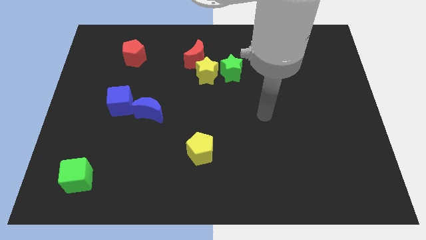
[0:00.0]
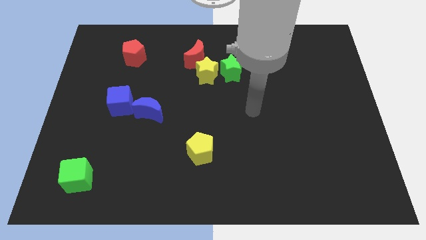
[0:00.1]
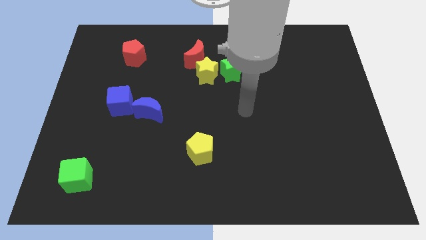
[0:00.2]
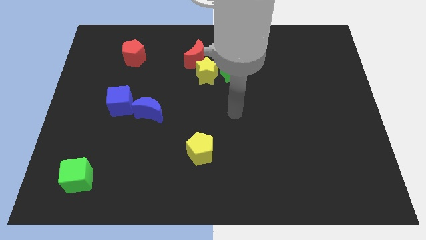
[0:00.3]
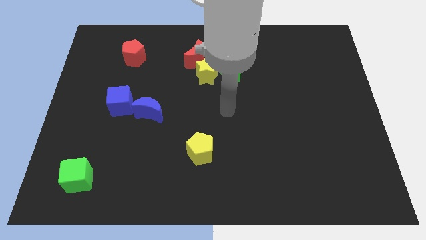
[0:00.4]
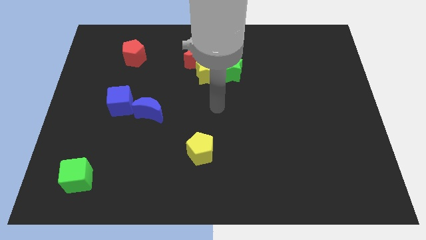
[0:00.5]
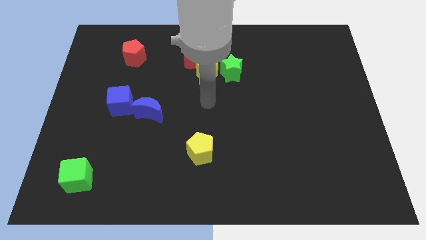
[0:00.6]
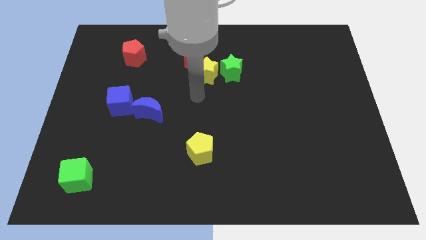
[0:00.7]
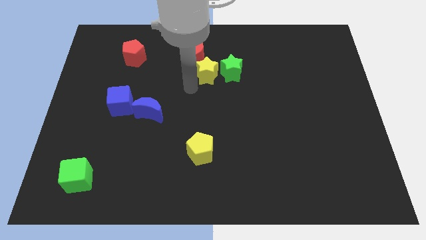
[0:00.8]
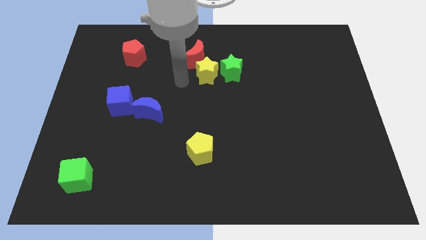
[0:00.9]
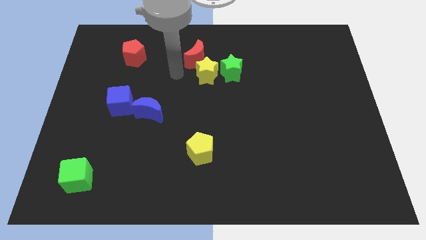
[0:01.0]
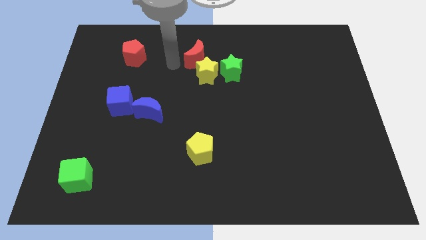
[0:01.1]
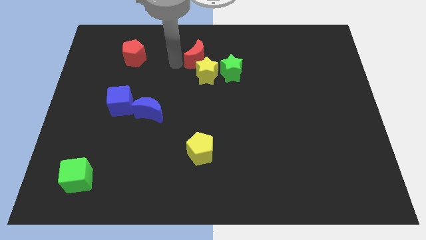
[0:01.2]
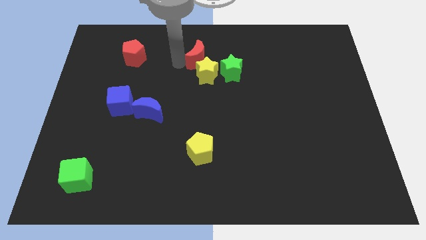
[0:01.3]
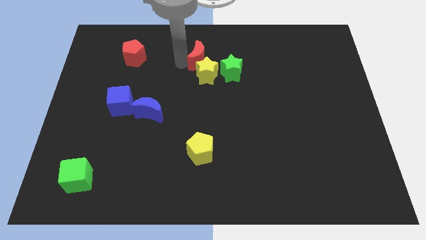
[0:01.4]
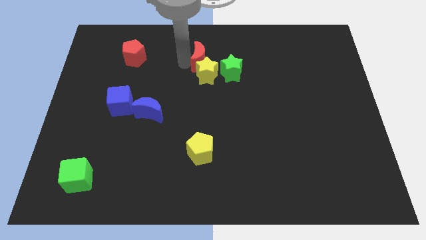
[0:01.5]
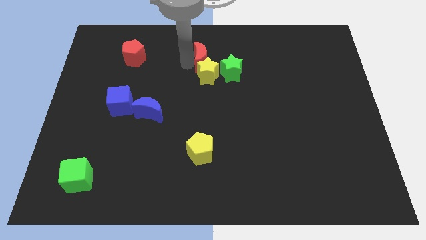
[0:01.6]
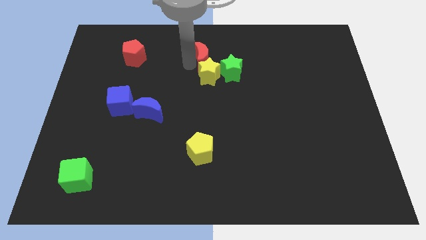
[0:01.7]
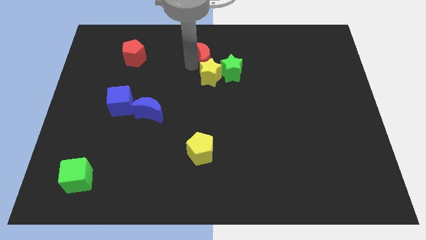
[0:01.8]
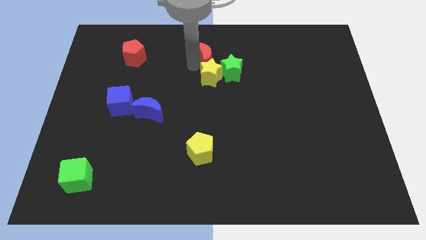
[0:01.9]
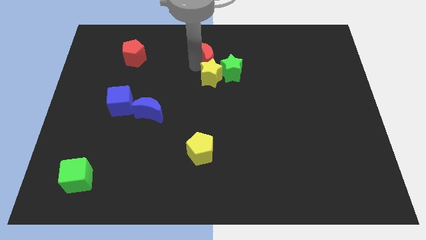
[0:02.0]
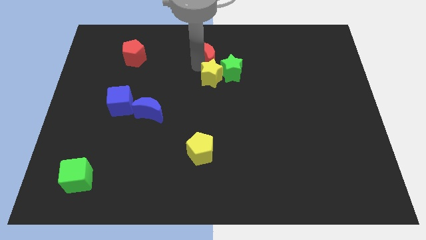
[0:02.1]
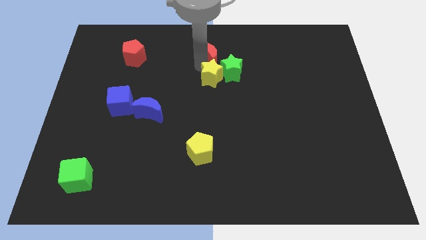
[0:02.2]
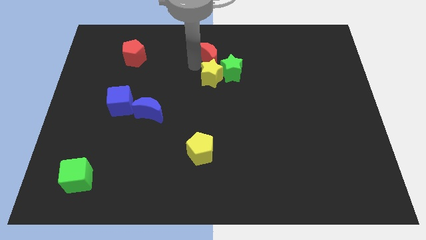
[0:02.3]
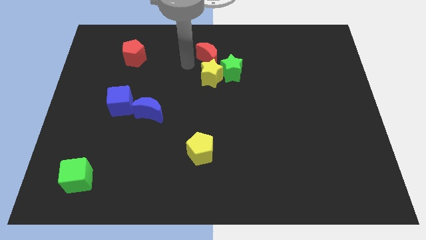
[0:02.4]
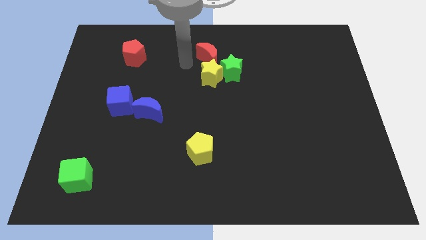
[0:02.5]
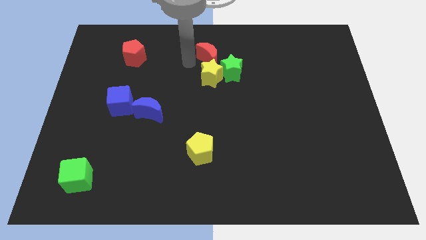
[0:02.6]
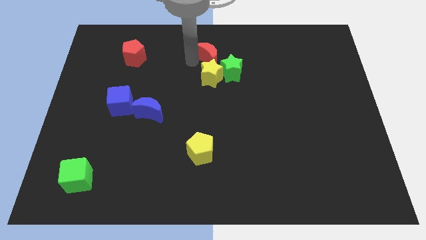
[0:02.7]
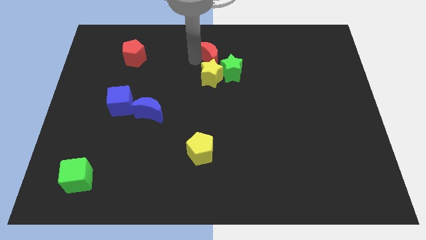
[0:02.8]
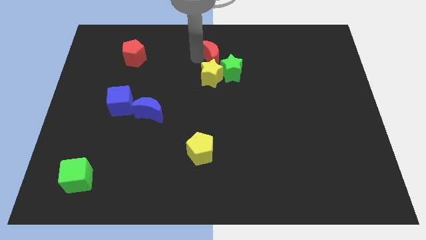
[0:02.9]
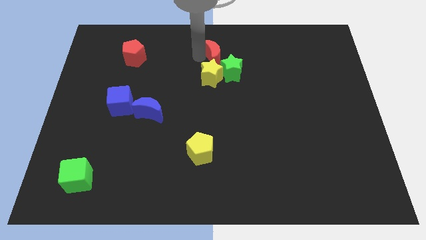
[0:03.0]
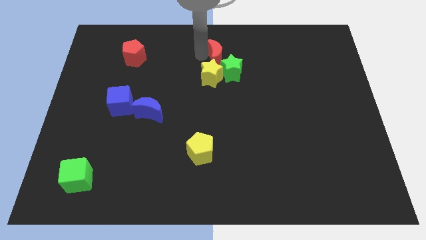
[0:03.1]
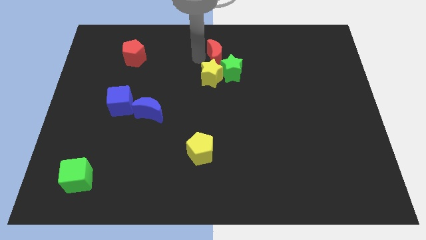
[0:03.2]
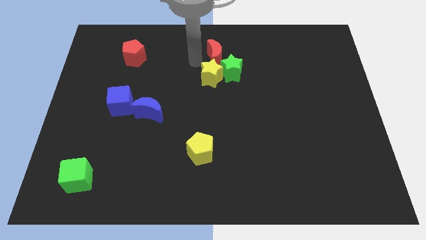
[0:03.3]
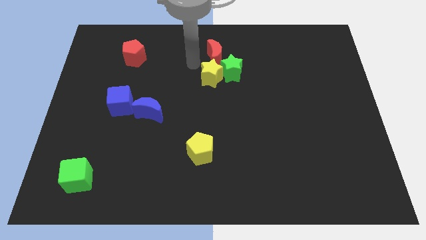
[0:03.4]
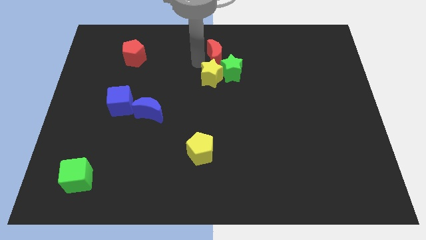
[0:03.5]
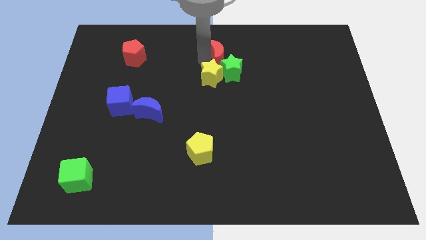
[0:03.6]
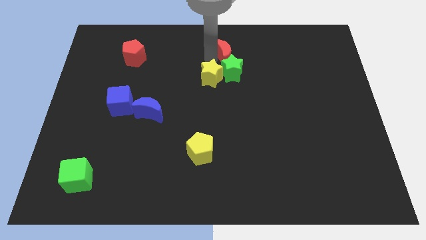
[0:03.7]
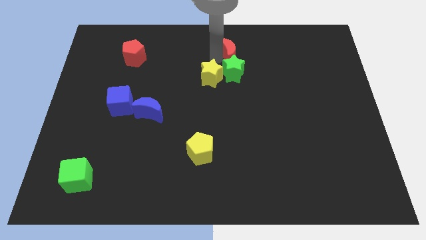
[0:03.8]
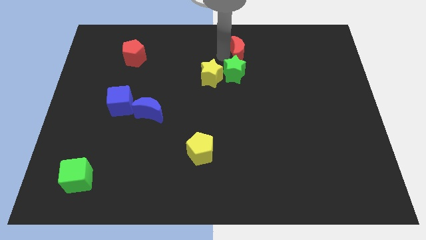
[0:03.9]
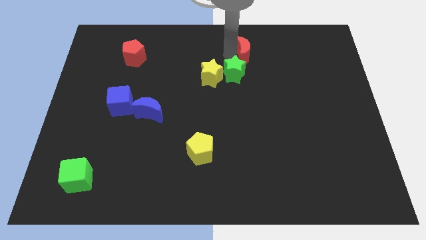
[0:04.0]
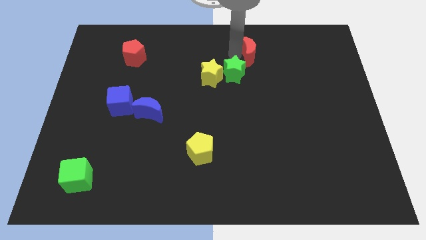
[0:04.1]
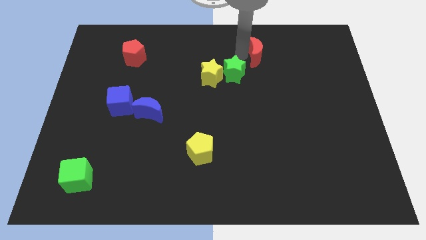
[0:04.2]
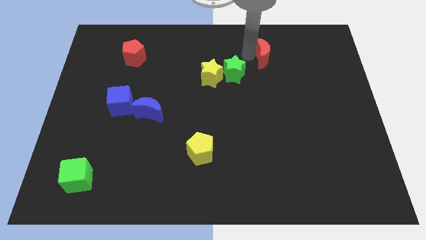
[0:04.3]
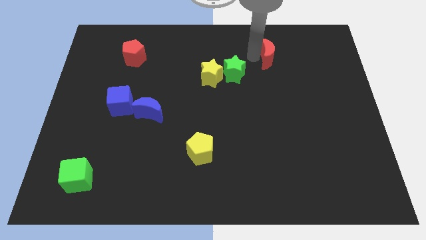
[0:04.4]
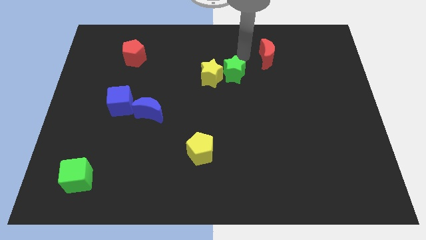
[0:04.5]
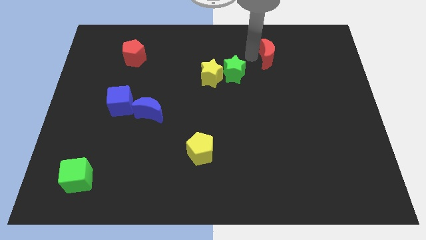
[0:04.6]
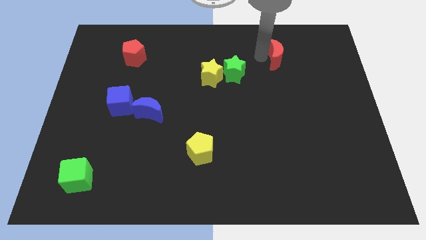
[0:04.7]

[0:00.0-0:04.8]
push the red moon to the right

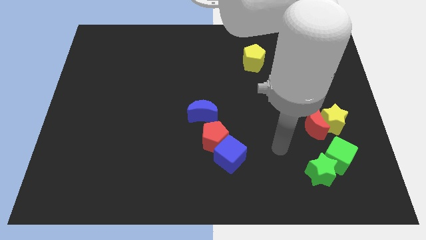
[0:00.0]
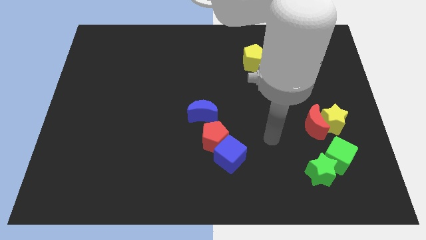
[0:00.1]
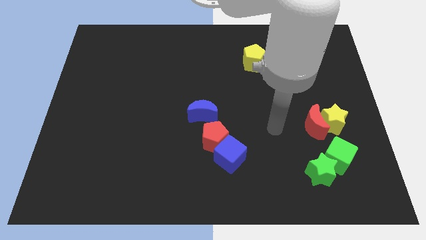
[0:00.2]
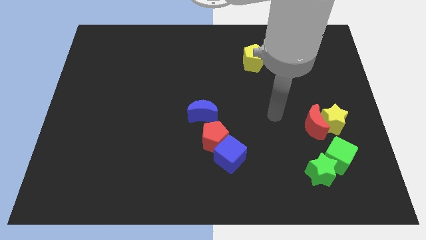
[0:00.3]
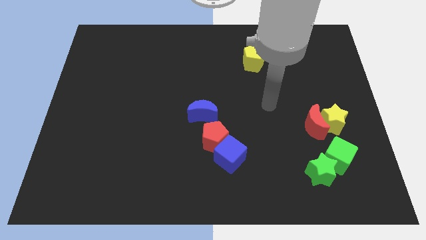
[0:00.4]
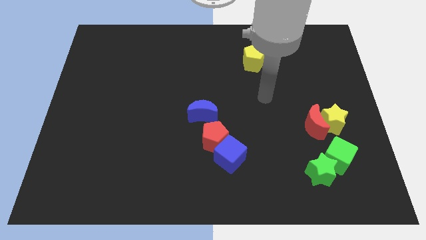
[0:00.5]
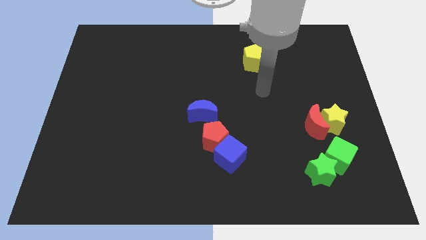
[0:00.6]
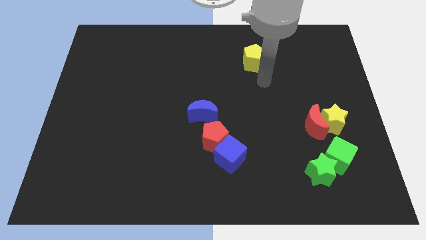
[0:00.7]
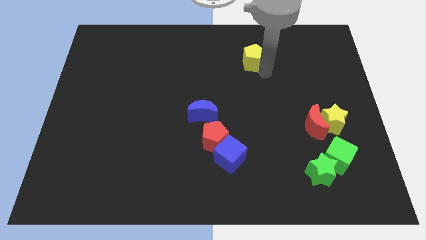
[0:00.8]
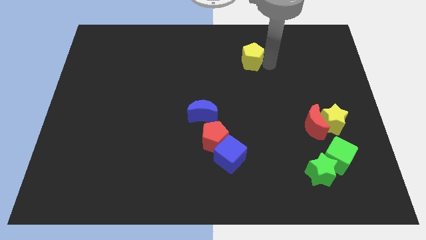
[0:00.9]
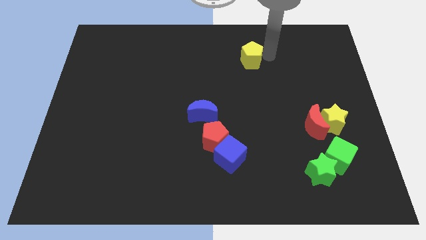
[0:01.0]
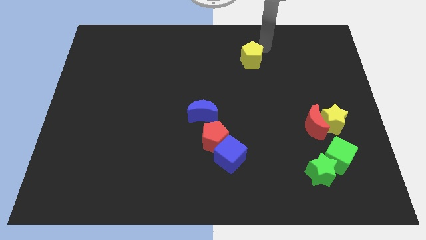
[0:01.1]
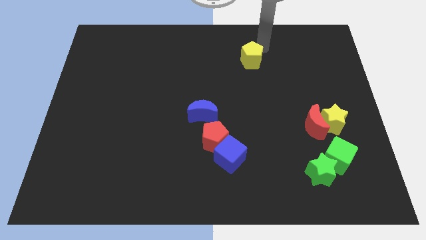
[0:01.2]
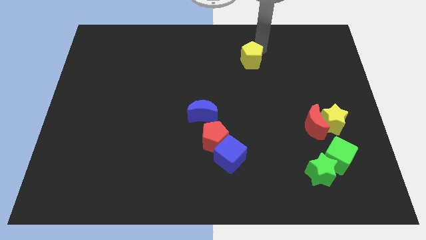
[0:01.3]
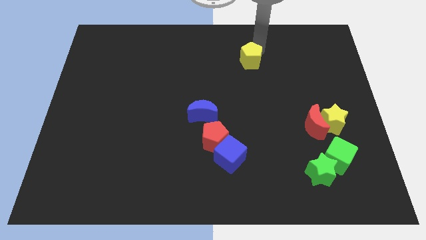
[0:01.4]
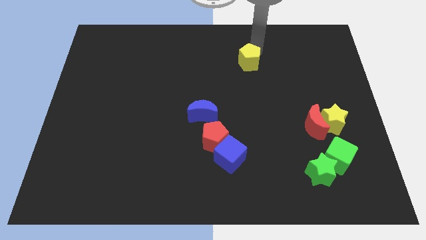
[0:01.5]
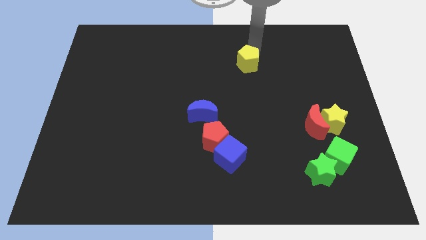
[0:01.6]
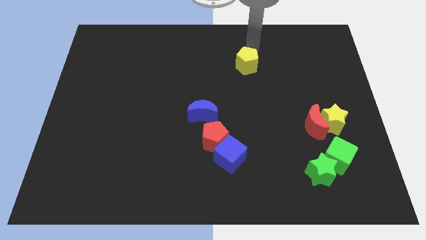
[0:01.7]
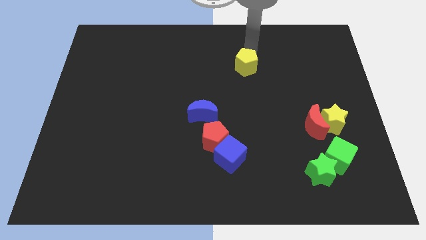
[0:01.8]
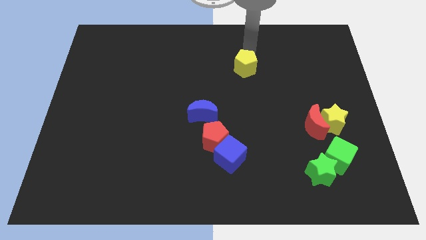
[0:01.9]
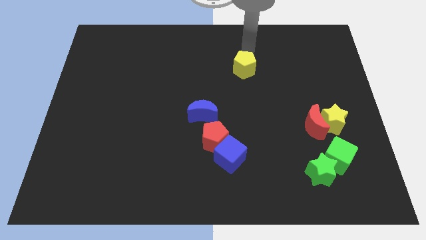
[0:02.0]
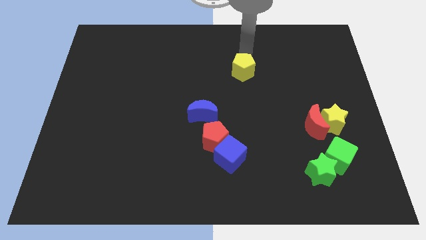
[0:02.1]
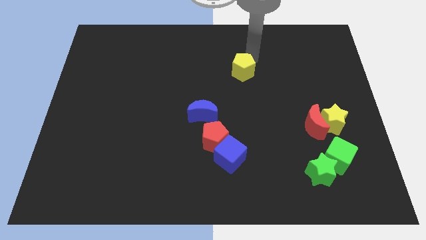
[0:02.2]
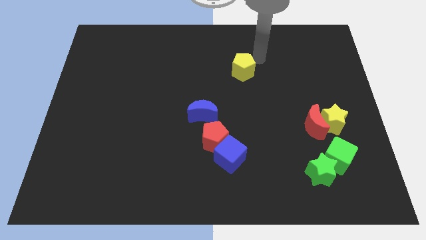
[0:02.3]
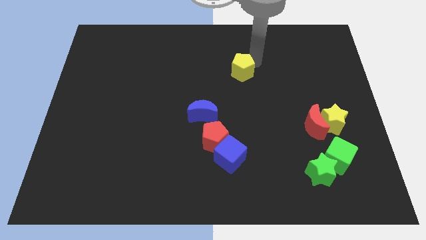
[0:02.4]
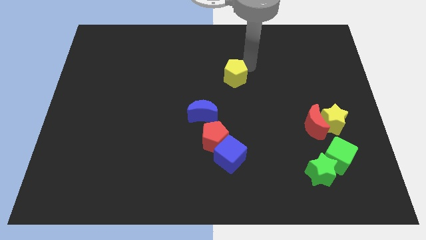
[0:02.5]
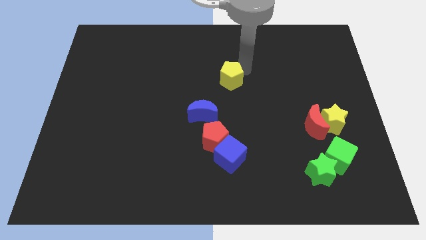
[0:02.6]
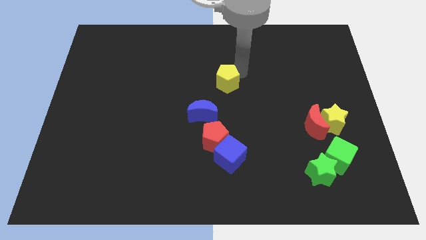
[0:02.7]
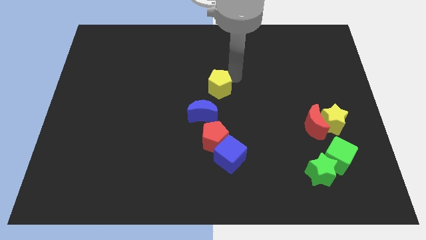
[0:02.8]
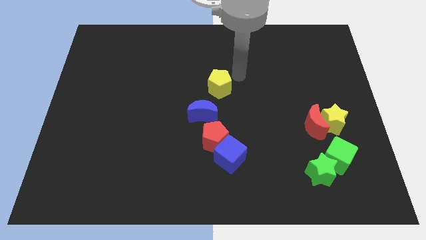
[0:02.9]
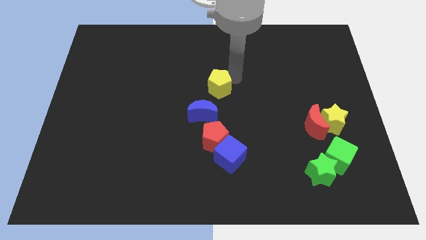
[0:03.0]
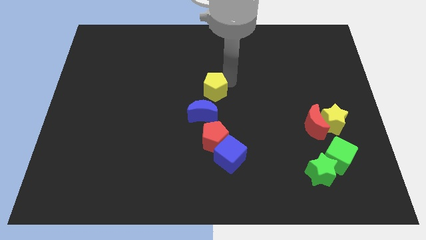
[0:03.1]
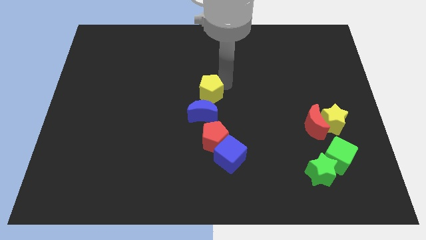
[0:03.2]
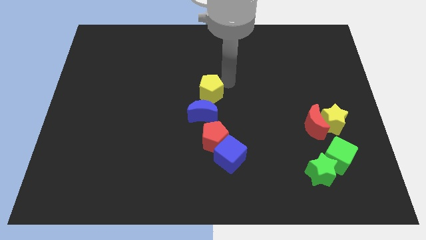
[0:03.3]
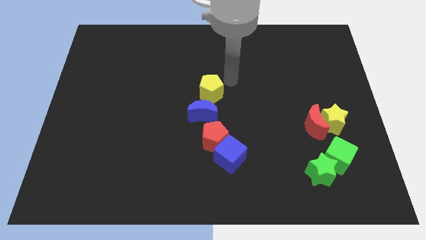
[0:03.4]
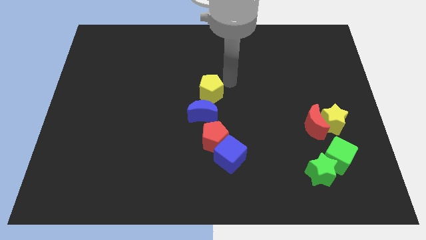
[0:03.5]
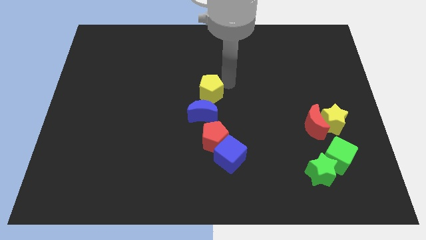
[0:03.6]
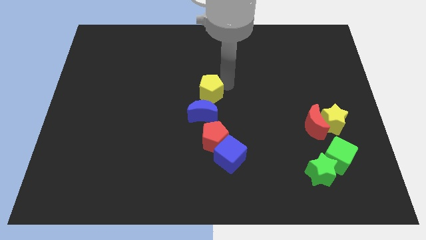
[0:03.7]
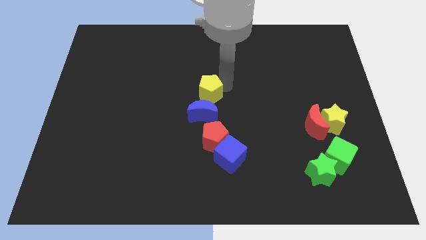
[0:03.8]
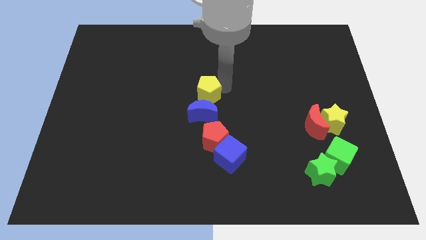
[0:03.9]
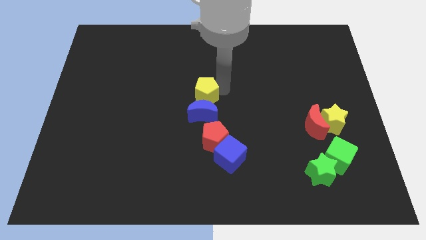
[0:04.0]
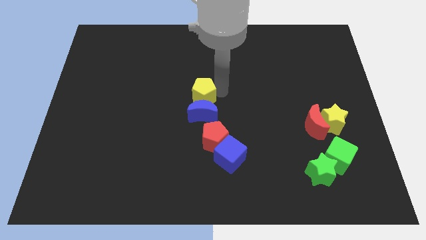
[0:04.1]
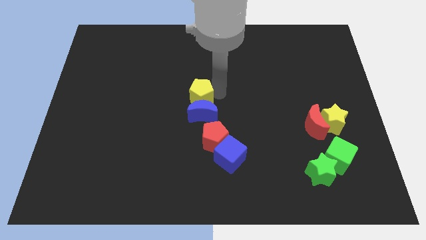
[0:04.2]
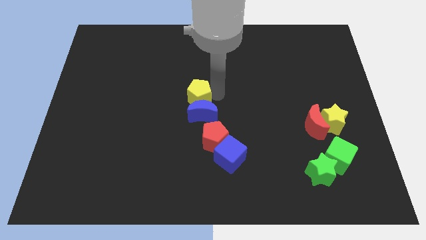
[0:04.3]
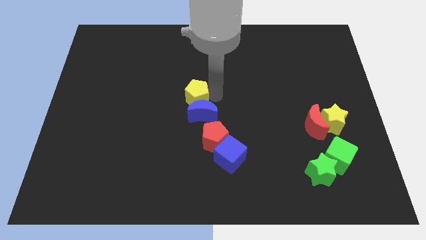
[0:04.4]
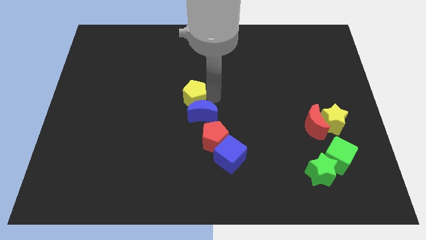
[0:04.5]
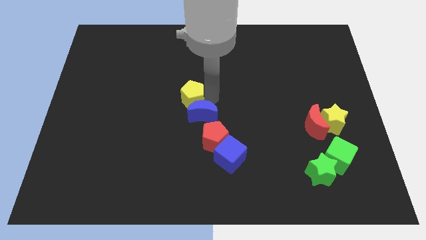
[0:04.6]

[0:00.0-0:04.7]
slide the yellow pentagon diagonally downwards and to the left
